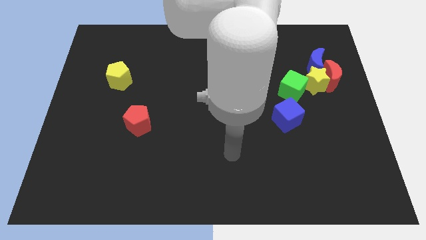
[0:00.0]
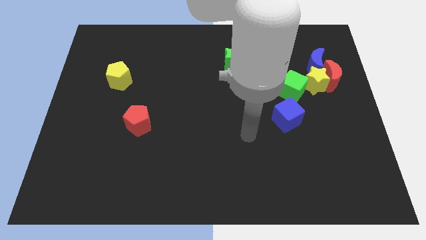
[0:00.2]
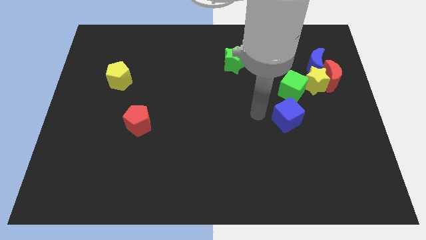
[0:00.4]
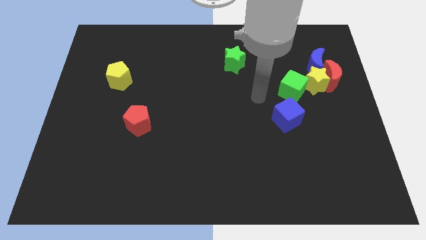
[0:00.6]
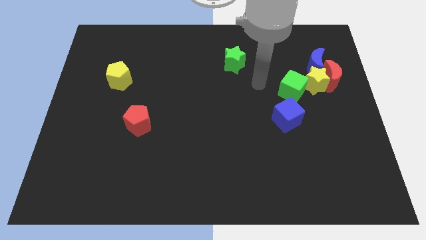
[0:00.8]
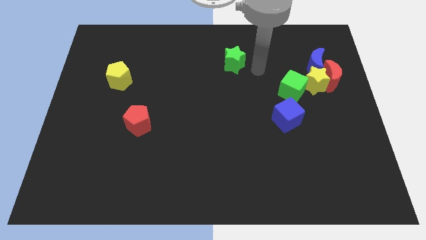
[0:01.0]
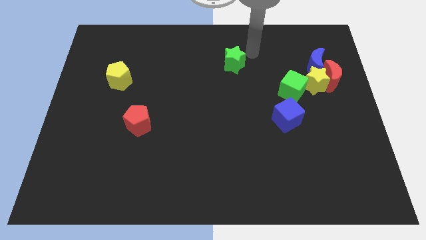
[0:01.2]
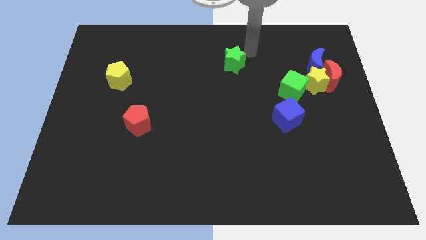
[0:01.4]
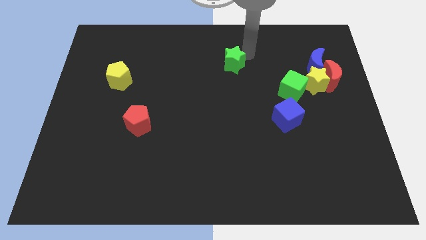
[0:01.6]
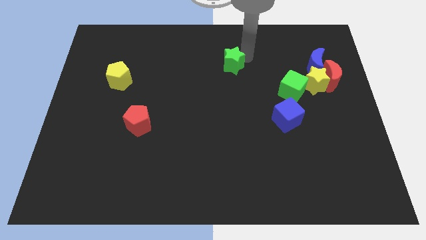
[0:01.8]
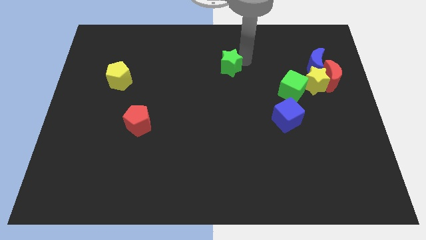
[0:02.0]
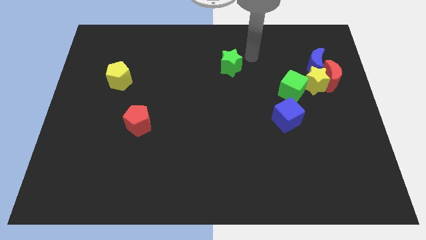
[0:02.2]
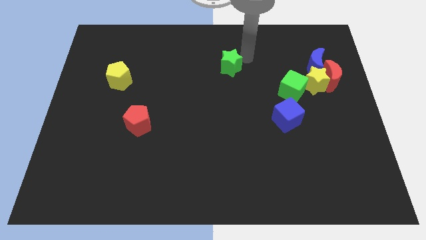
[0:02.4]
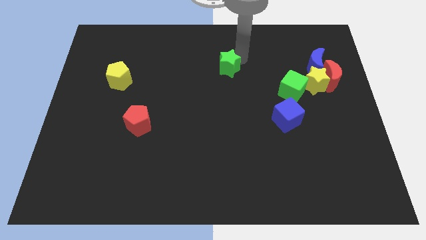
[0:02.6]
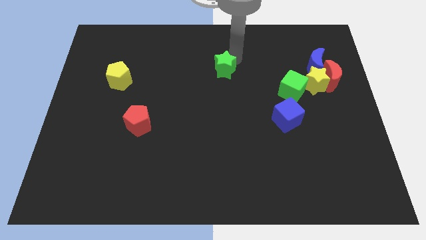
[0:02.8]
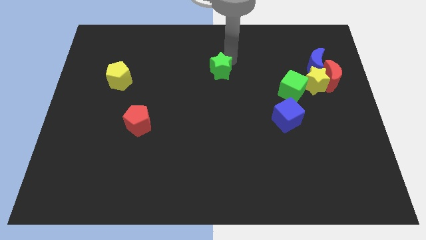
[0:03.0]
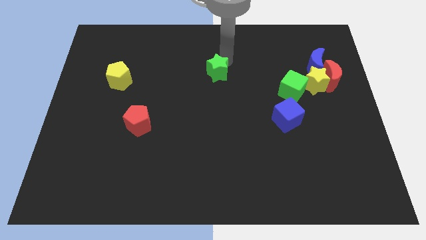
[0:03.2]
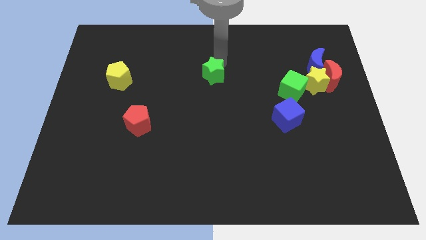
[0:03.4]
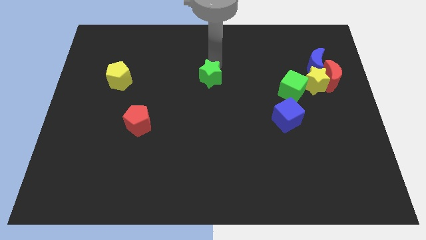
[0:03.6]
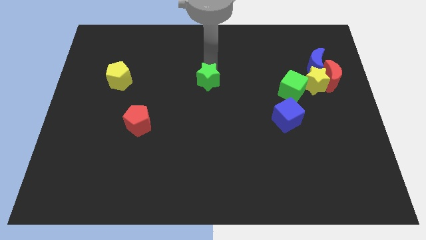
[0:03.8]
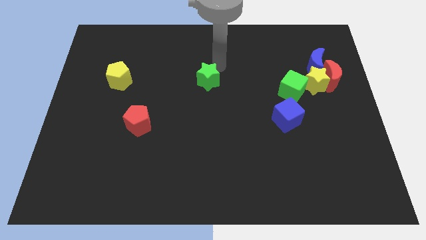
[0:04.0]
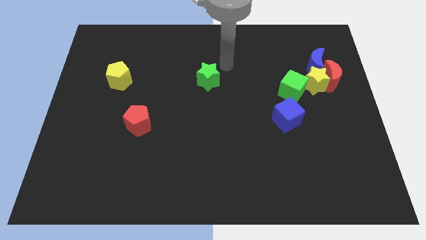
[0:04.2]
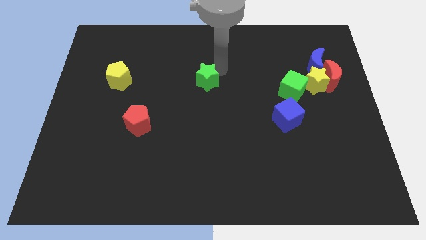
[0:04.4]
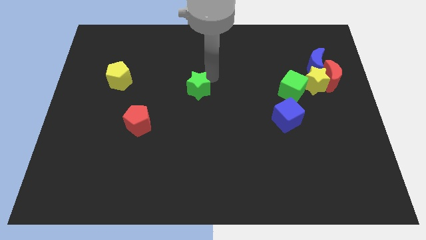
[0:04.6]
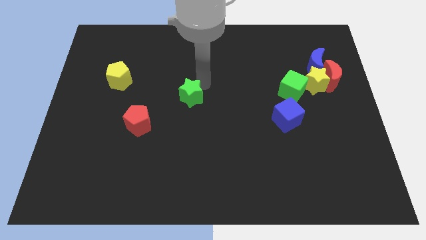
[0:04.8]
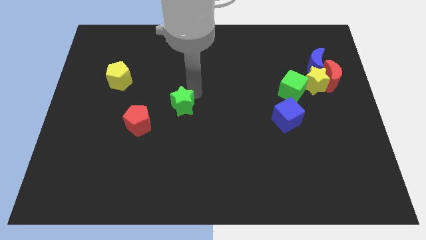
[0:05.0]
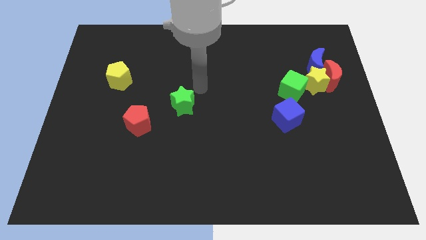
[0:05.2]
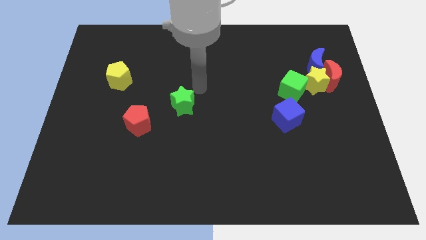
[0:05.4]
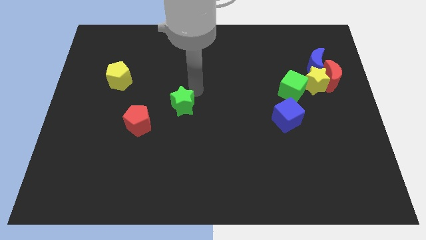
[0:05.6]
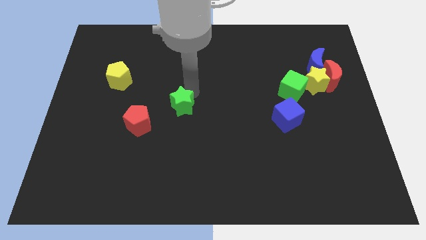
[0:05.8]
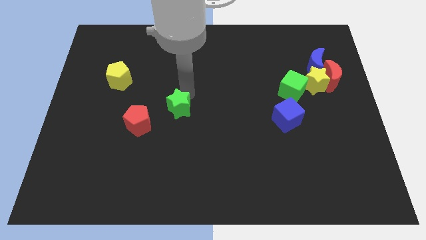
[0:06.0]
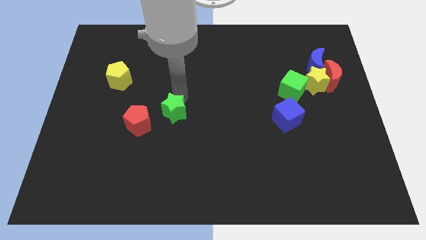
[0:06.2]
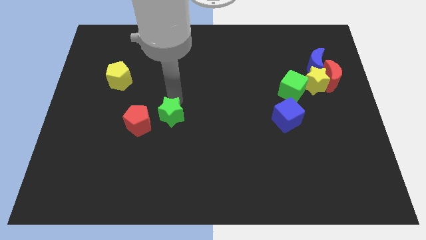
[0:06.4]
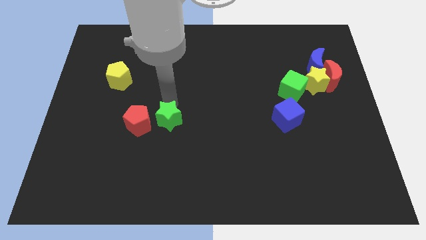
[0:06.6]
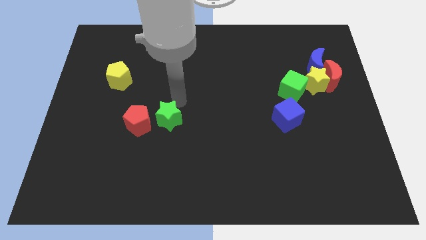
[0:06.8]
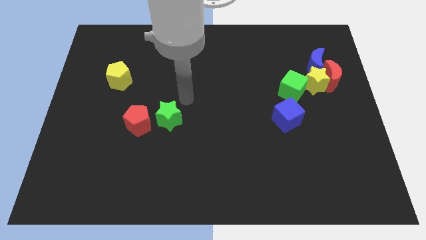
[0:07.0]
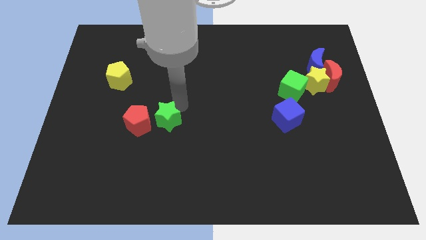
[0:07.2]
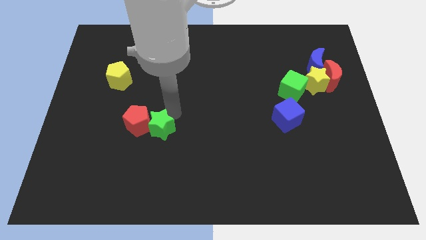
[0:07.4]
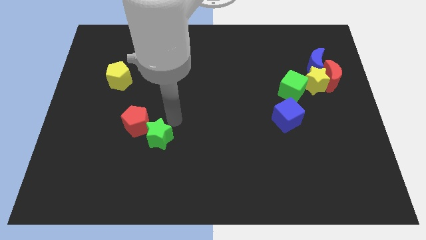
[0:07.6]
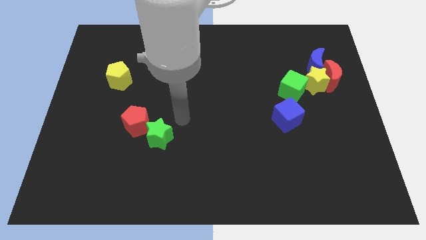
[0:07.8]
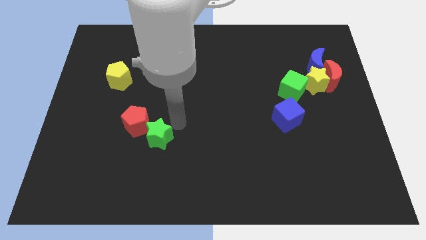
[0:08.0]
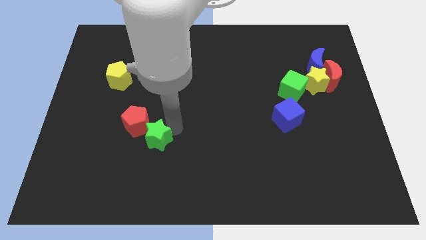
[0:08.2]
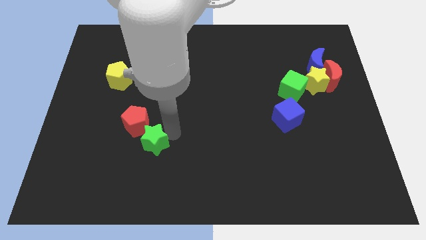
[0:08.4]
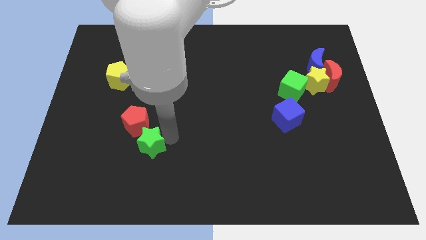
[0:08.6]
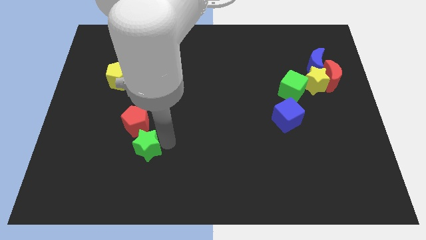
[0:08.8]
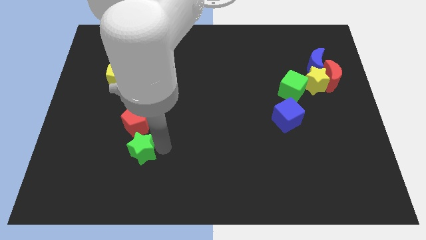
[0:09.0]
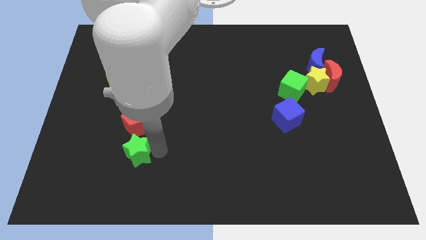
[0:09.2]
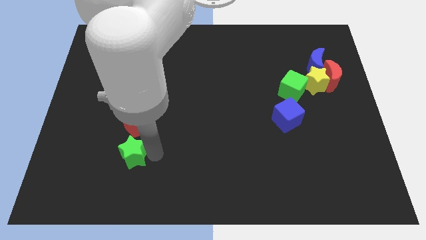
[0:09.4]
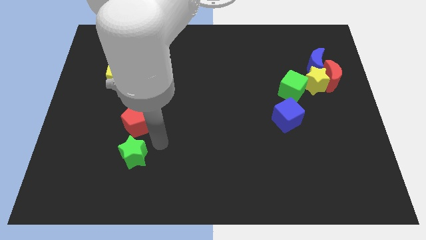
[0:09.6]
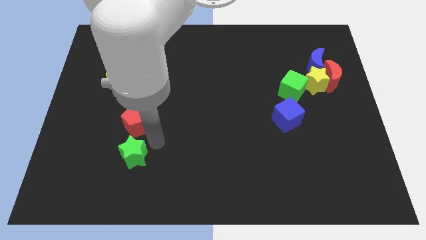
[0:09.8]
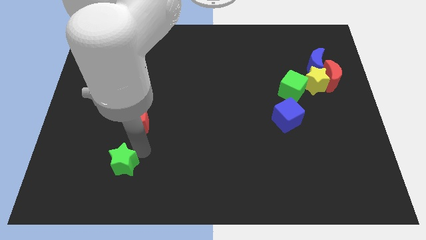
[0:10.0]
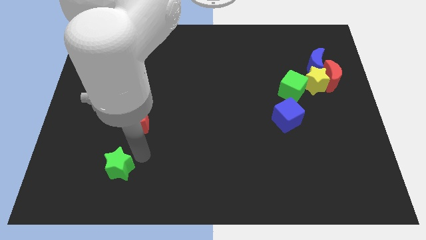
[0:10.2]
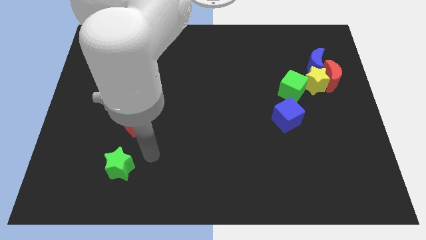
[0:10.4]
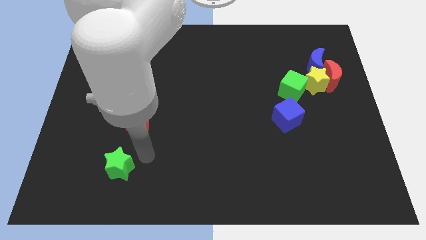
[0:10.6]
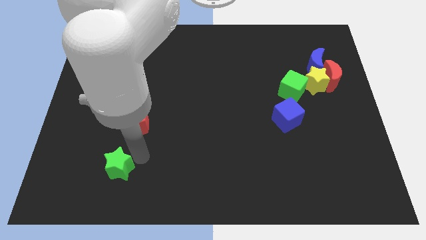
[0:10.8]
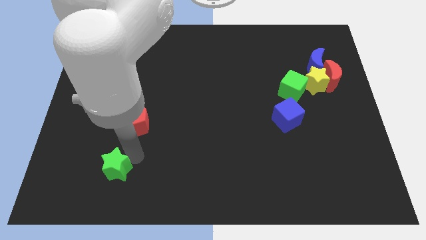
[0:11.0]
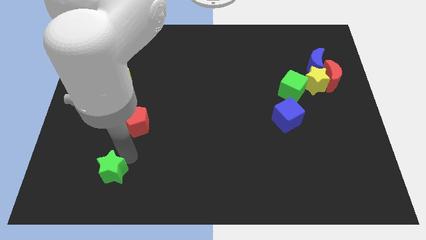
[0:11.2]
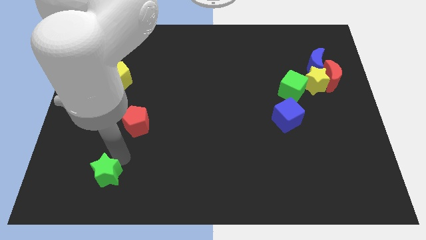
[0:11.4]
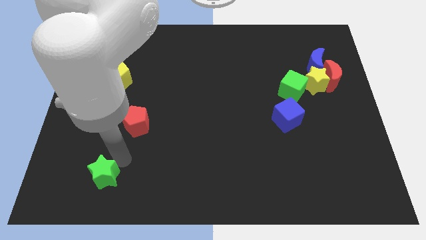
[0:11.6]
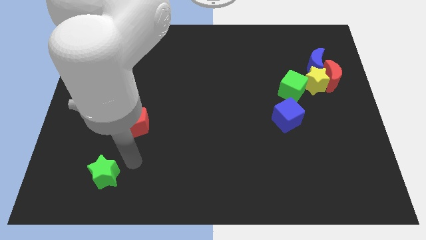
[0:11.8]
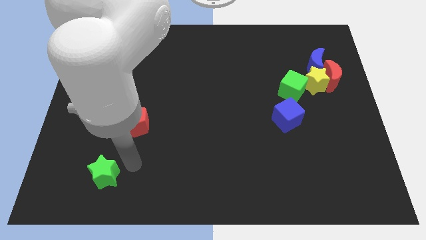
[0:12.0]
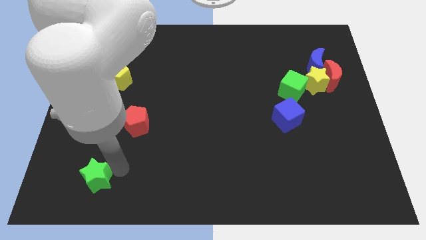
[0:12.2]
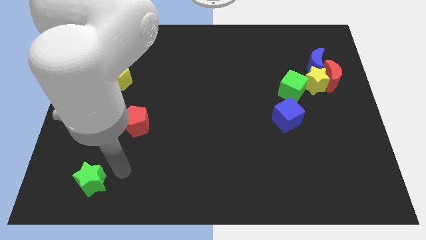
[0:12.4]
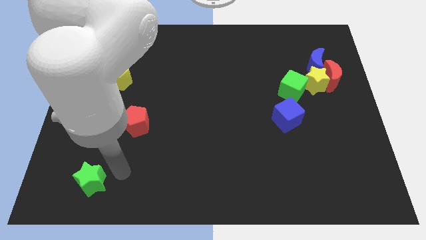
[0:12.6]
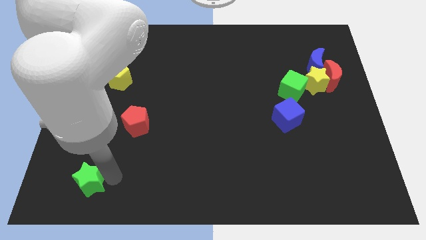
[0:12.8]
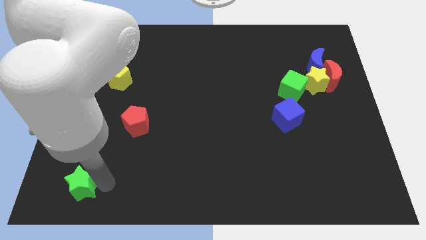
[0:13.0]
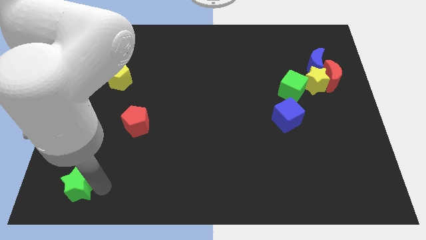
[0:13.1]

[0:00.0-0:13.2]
slide the green star to the bottom left of the board

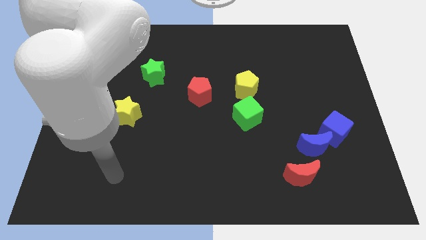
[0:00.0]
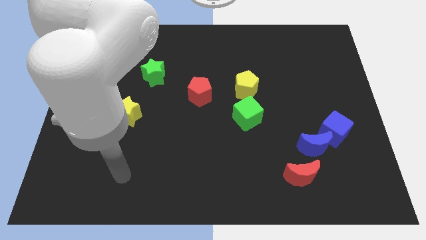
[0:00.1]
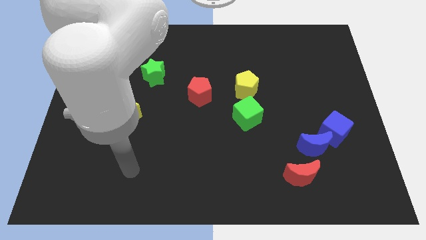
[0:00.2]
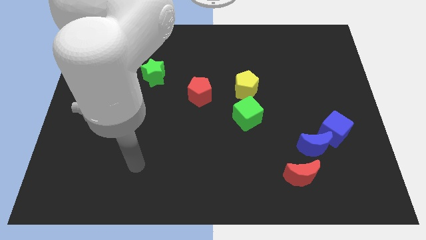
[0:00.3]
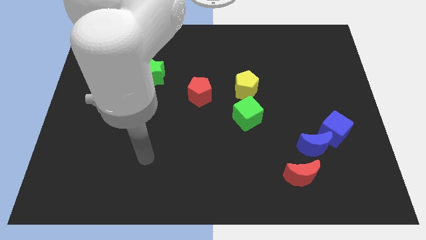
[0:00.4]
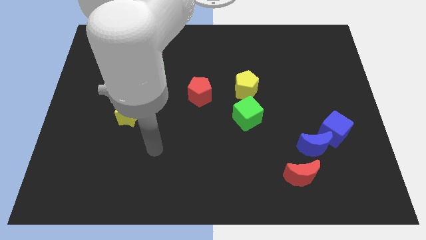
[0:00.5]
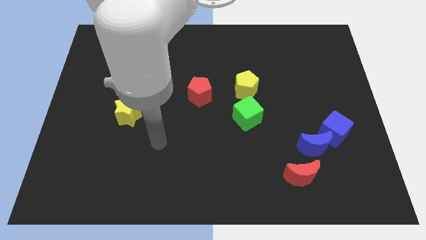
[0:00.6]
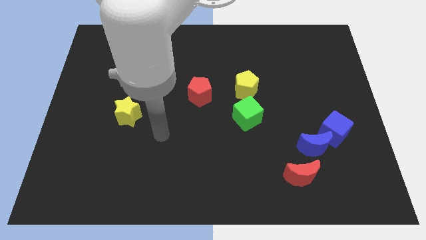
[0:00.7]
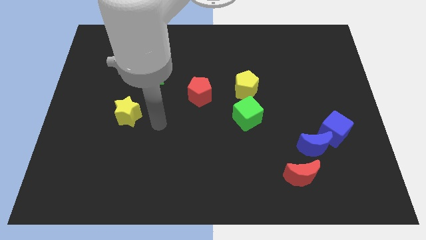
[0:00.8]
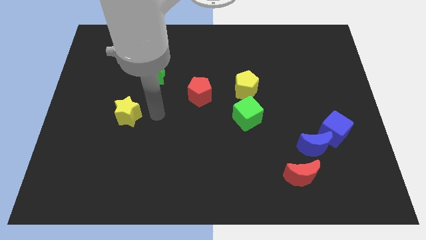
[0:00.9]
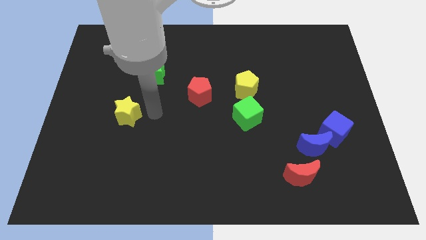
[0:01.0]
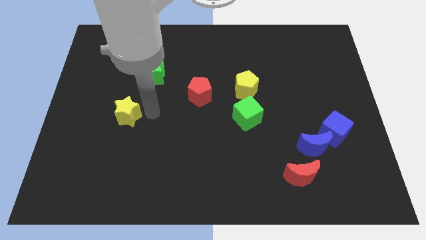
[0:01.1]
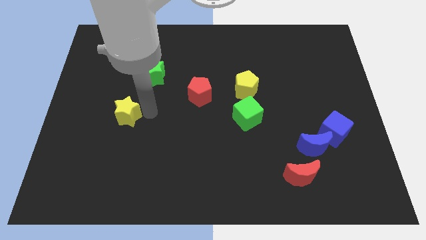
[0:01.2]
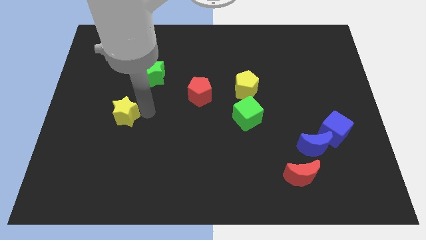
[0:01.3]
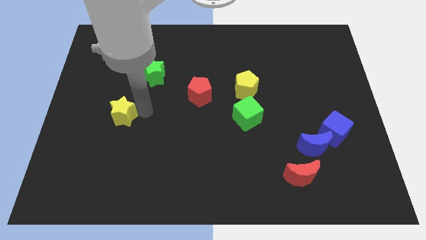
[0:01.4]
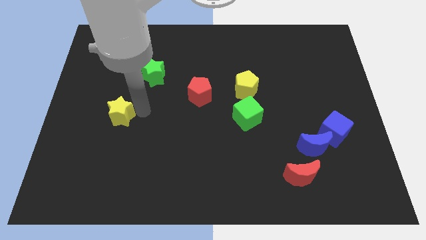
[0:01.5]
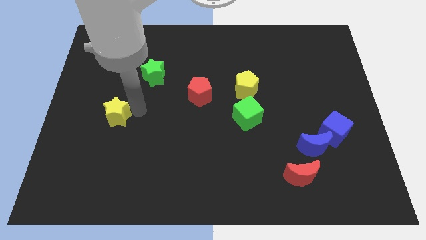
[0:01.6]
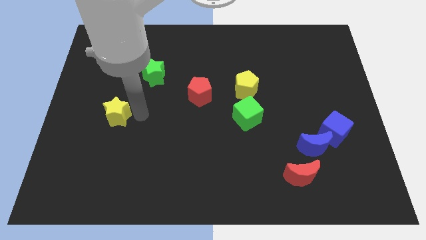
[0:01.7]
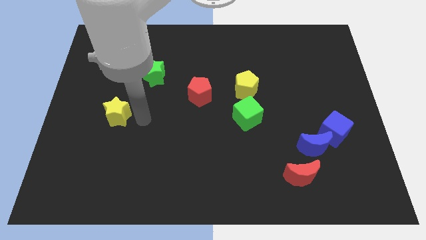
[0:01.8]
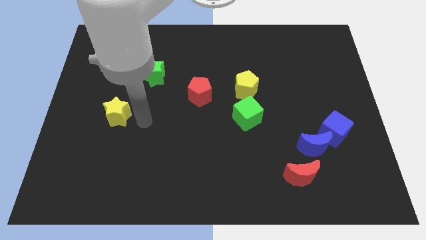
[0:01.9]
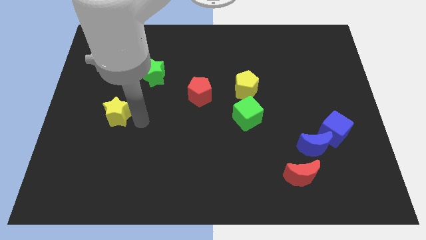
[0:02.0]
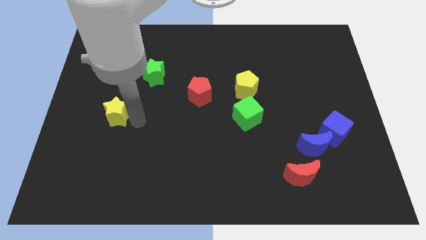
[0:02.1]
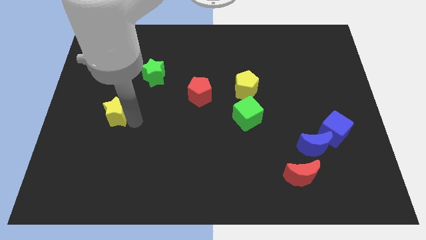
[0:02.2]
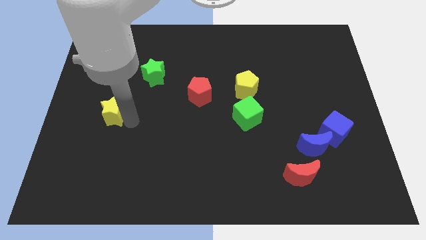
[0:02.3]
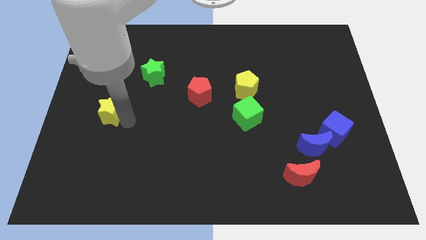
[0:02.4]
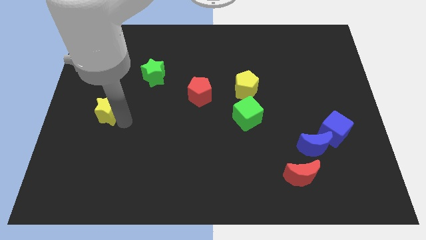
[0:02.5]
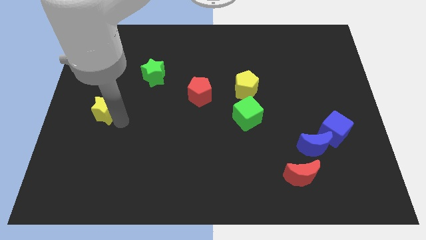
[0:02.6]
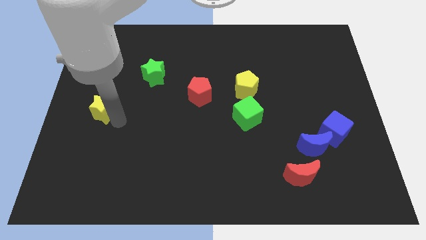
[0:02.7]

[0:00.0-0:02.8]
move the yellow star to the left side
